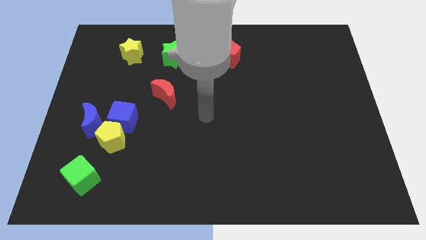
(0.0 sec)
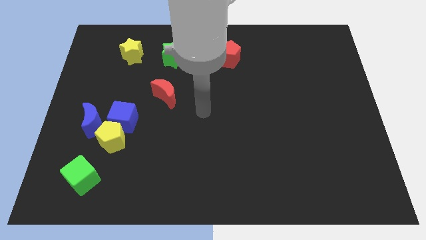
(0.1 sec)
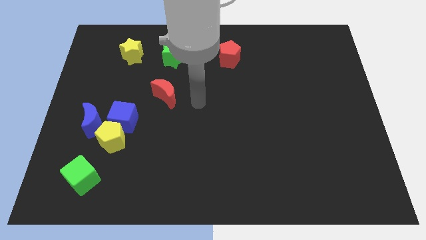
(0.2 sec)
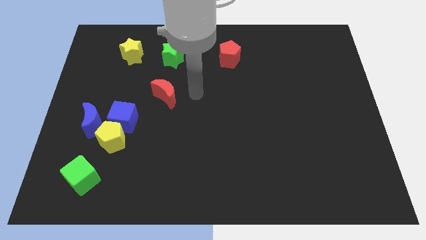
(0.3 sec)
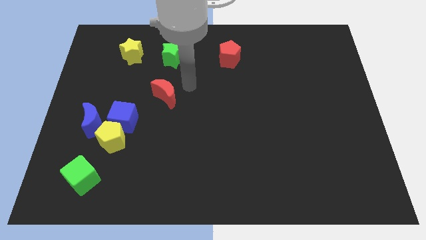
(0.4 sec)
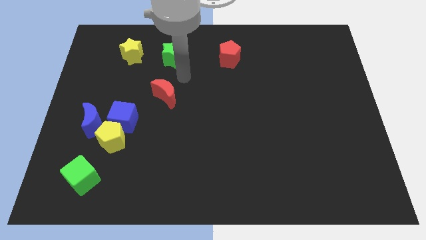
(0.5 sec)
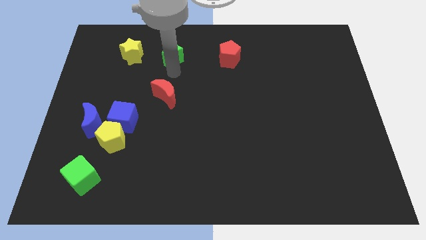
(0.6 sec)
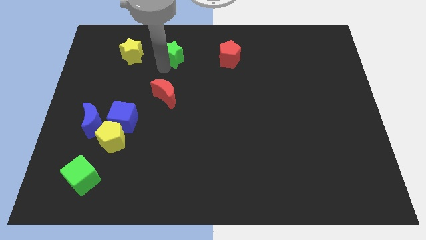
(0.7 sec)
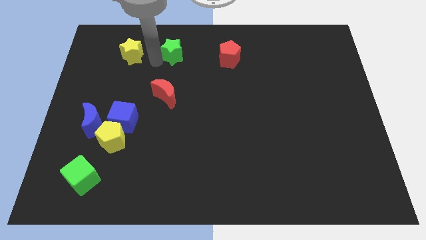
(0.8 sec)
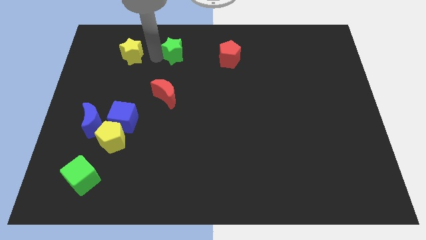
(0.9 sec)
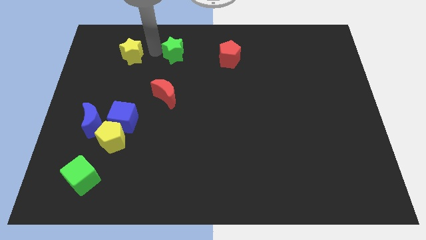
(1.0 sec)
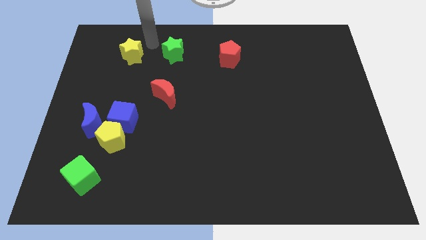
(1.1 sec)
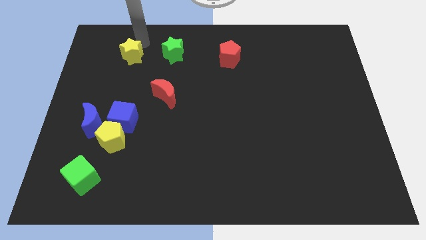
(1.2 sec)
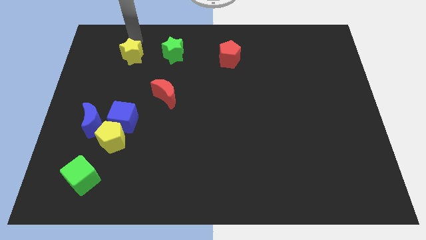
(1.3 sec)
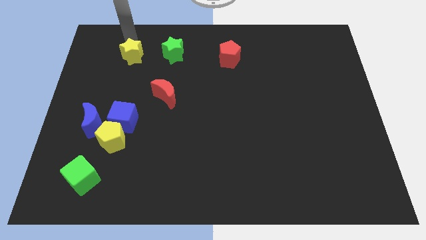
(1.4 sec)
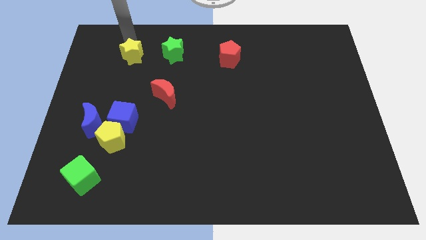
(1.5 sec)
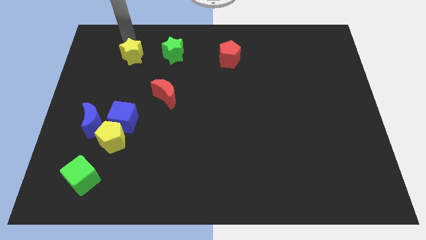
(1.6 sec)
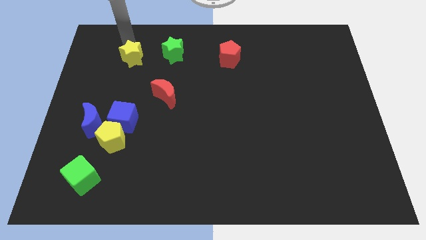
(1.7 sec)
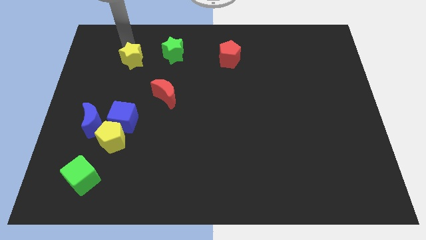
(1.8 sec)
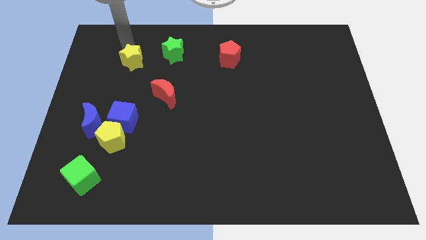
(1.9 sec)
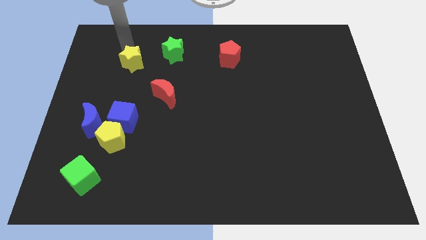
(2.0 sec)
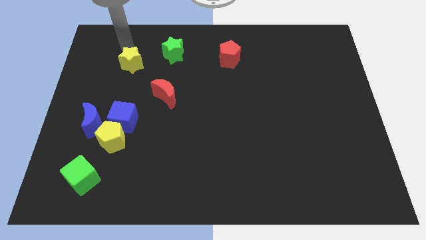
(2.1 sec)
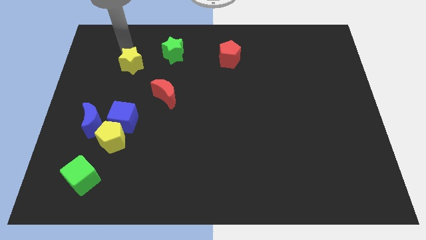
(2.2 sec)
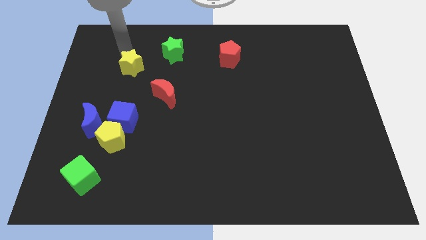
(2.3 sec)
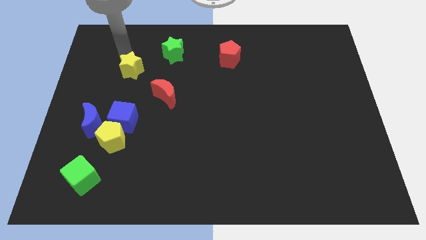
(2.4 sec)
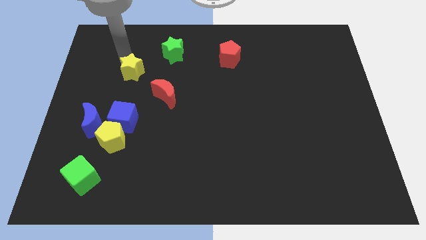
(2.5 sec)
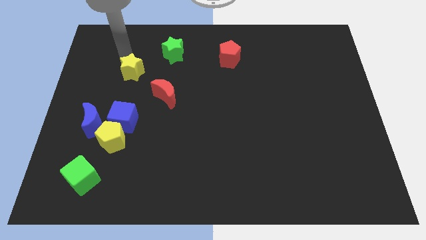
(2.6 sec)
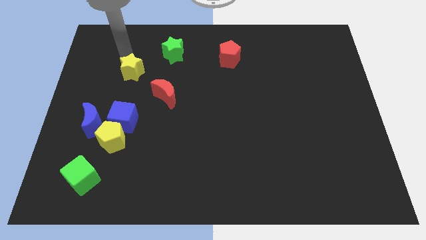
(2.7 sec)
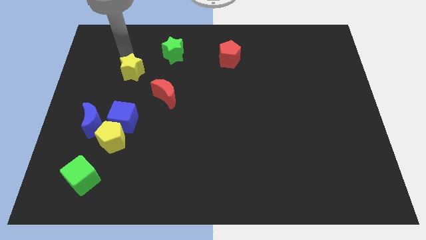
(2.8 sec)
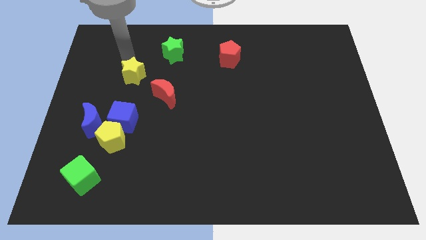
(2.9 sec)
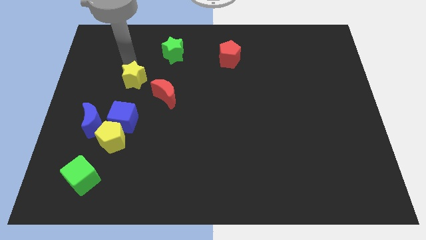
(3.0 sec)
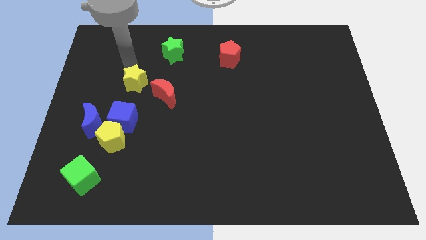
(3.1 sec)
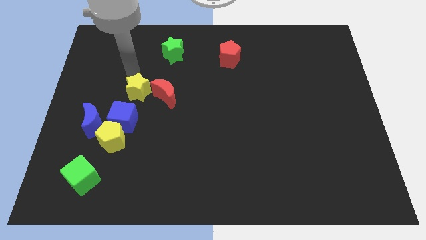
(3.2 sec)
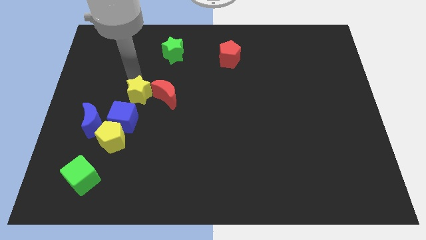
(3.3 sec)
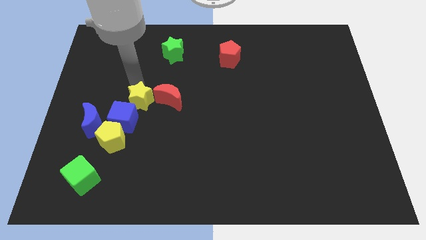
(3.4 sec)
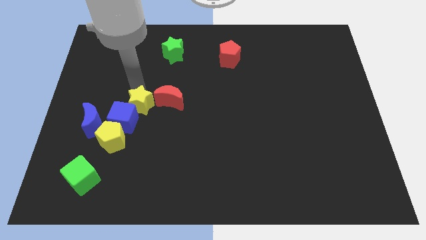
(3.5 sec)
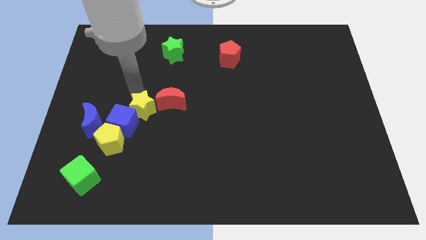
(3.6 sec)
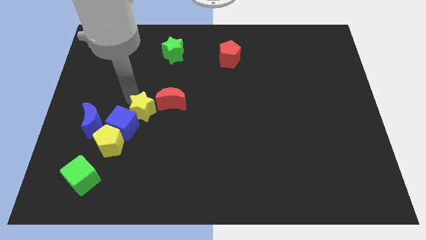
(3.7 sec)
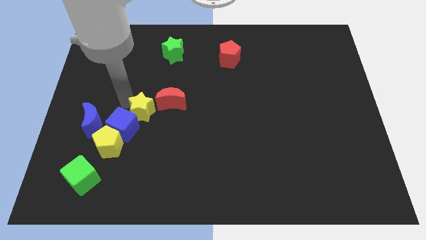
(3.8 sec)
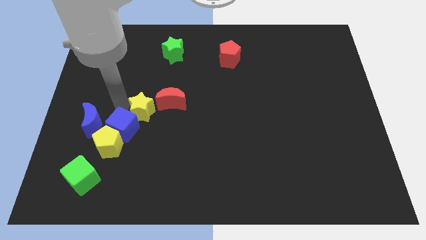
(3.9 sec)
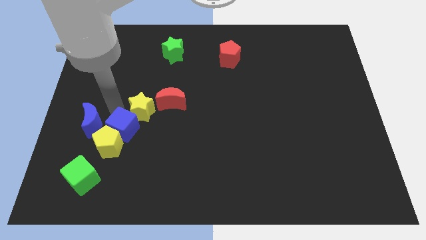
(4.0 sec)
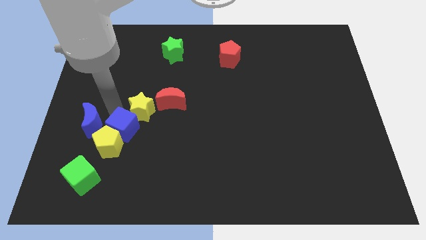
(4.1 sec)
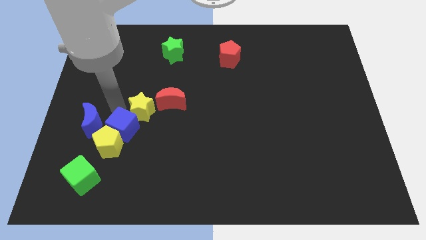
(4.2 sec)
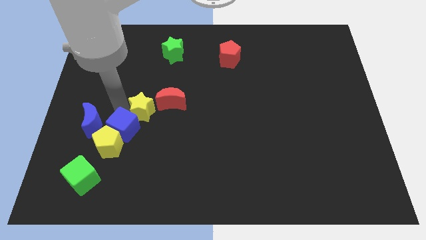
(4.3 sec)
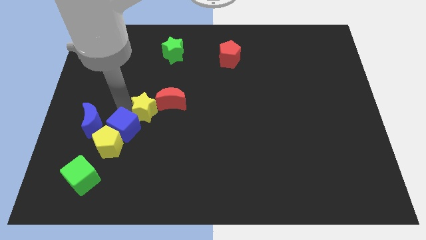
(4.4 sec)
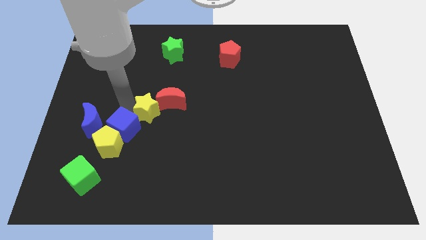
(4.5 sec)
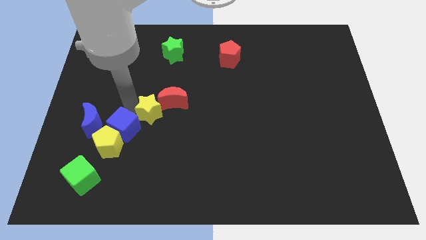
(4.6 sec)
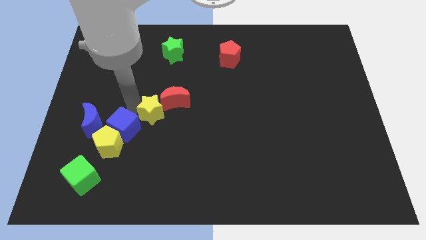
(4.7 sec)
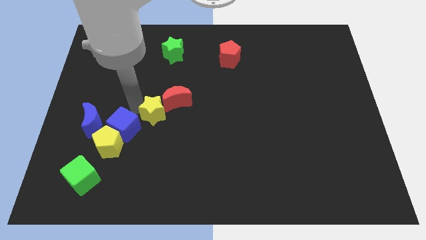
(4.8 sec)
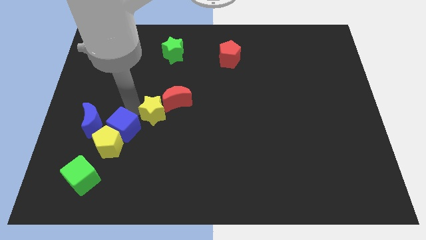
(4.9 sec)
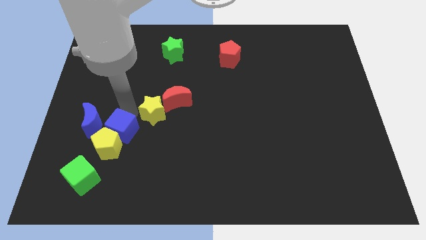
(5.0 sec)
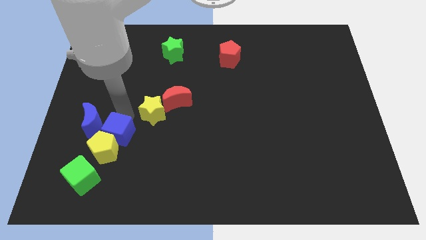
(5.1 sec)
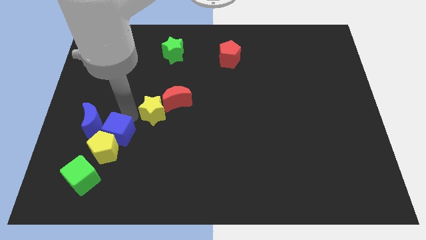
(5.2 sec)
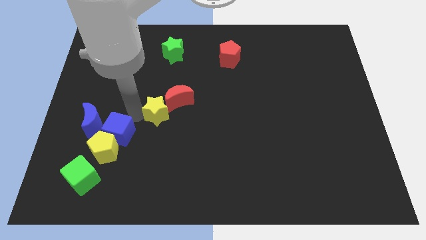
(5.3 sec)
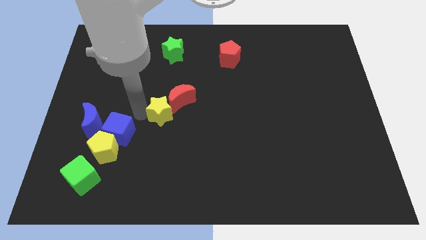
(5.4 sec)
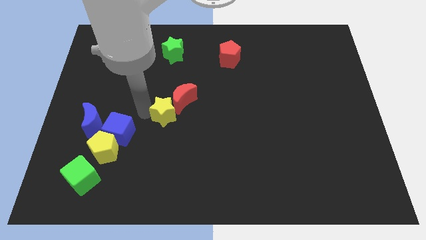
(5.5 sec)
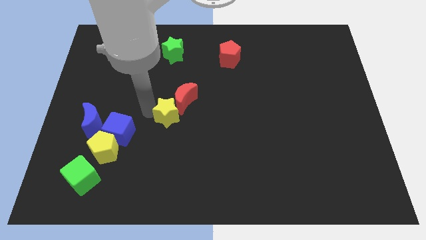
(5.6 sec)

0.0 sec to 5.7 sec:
push the yellow star downwards and to the right

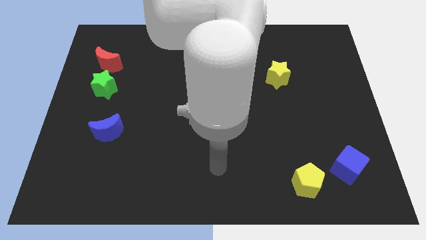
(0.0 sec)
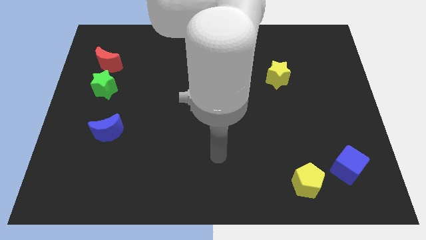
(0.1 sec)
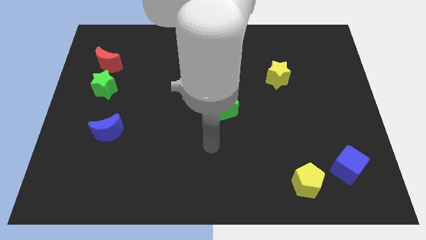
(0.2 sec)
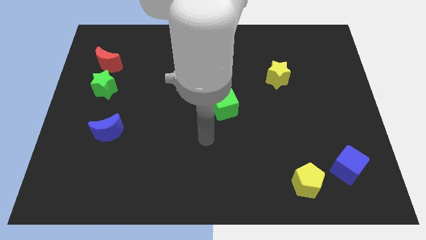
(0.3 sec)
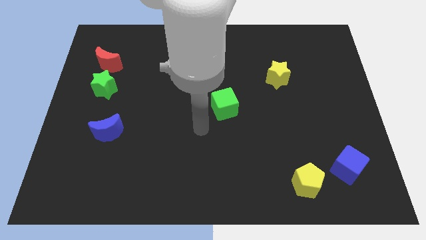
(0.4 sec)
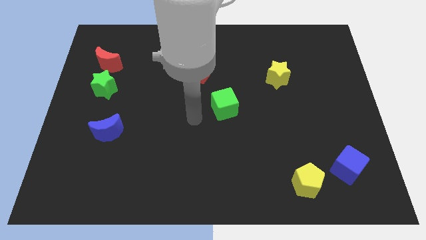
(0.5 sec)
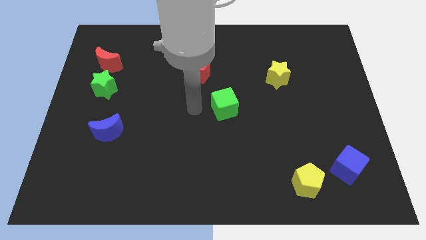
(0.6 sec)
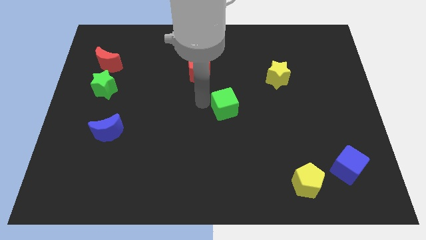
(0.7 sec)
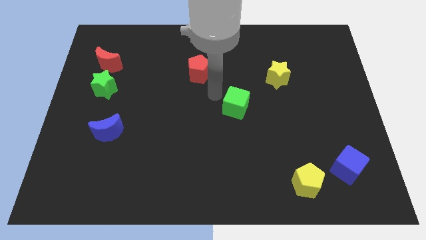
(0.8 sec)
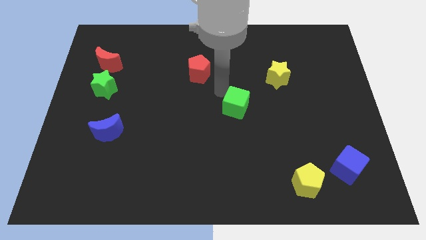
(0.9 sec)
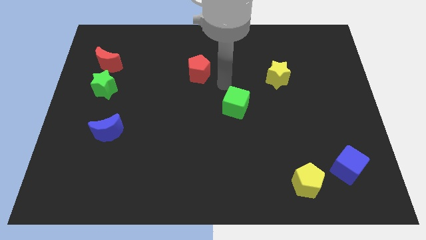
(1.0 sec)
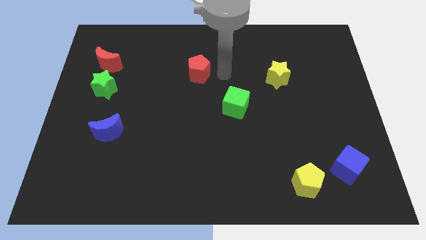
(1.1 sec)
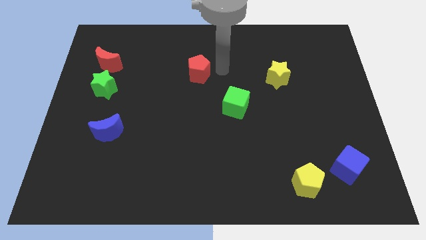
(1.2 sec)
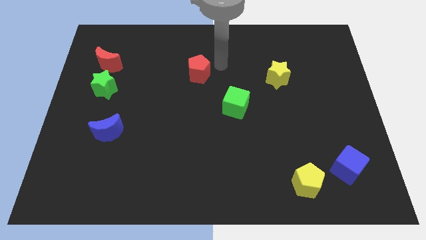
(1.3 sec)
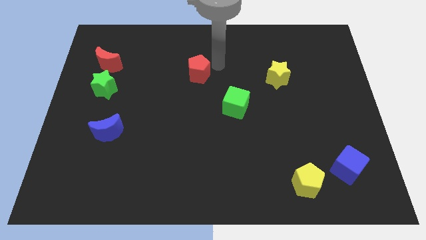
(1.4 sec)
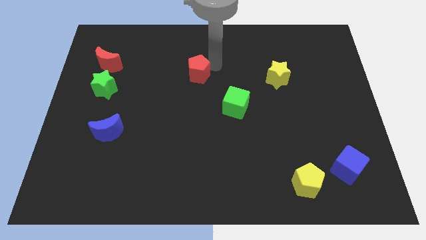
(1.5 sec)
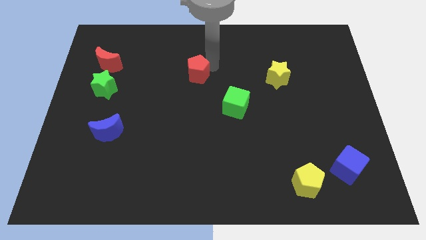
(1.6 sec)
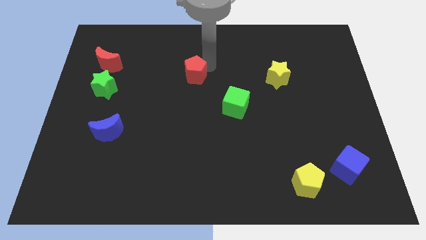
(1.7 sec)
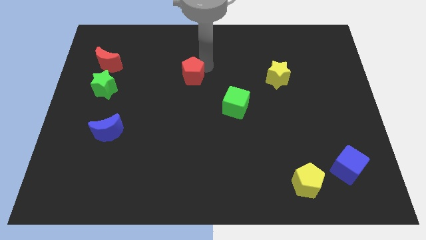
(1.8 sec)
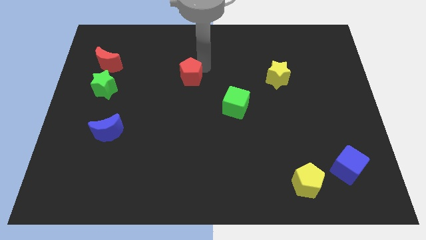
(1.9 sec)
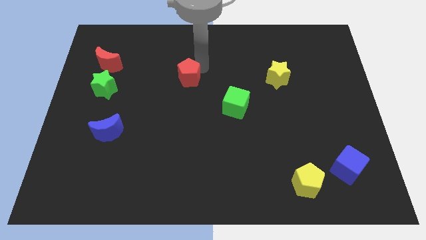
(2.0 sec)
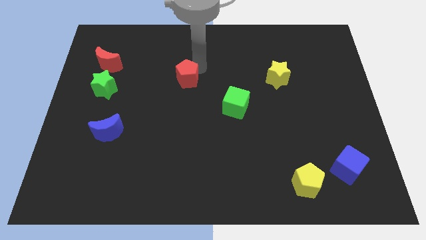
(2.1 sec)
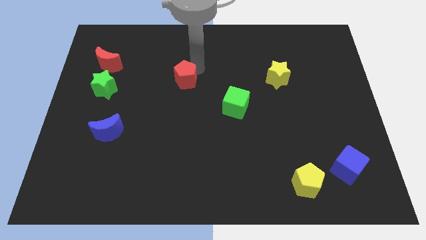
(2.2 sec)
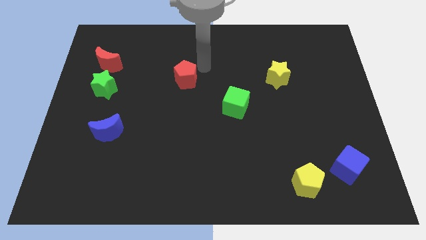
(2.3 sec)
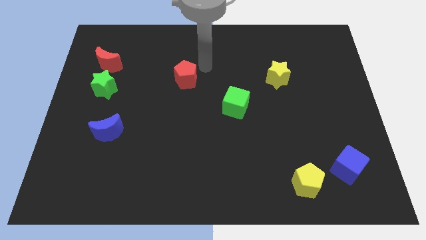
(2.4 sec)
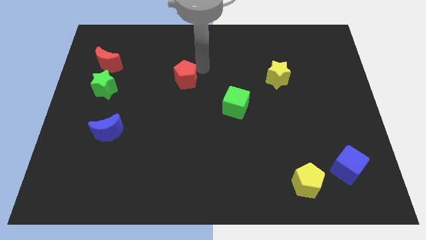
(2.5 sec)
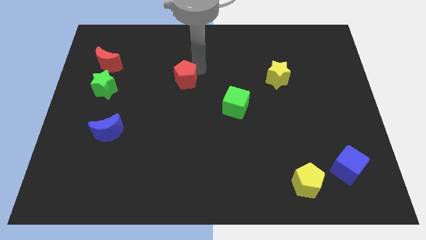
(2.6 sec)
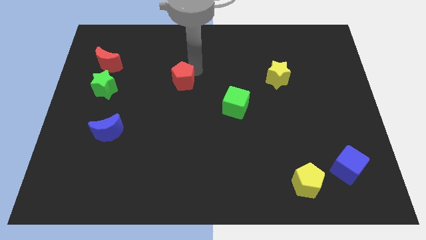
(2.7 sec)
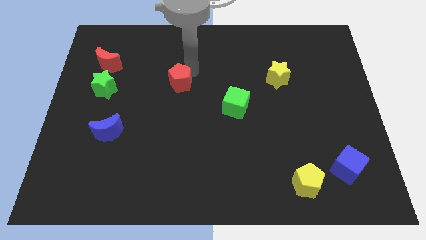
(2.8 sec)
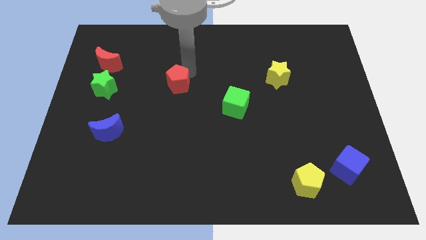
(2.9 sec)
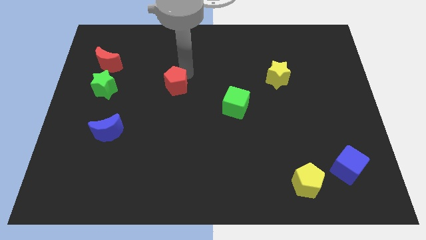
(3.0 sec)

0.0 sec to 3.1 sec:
slide the red pentagon somewhat down and to the left
